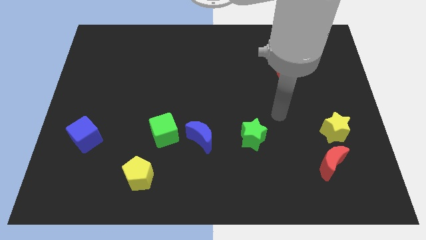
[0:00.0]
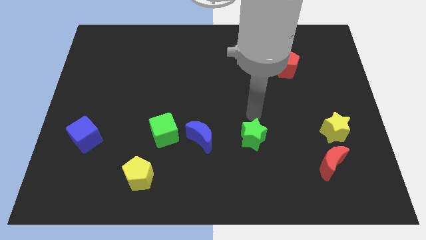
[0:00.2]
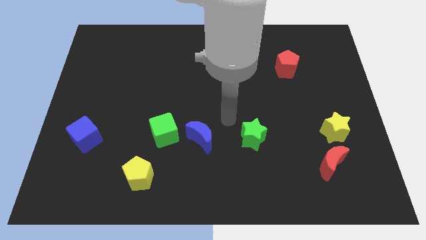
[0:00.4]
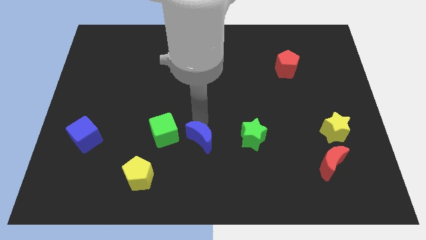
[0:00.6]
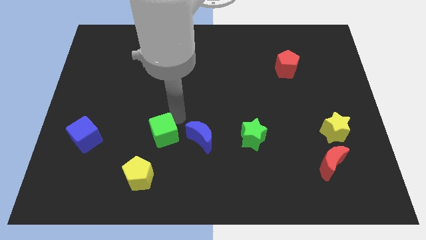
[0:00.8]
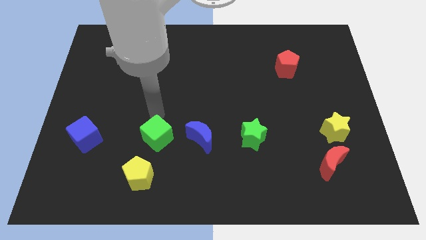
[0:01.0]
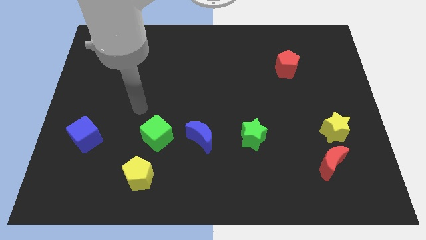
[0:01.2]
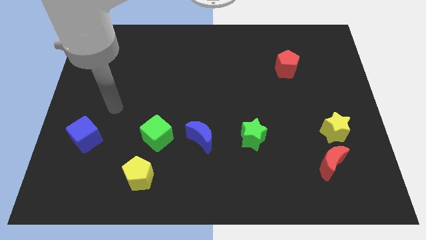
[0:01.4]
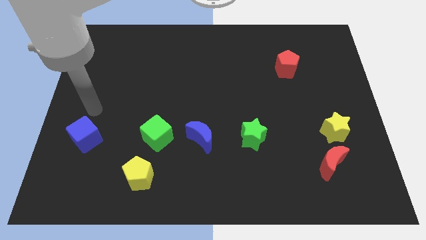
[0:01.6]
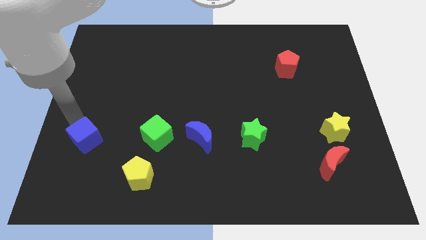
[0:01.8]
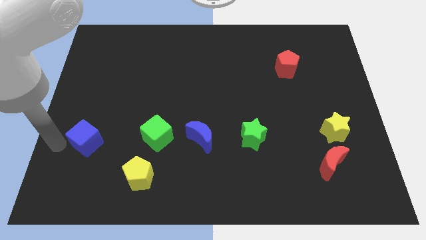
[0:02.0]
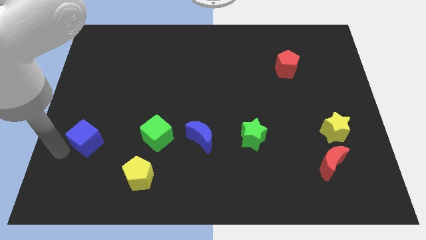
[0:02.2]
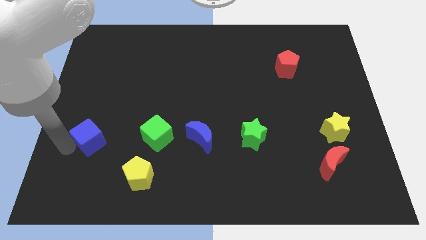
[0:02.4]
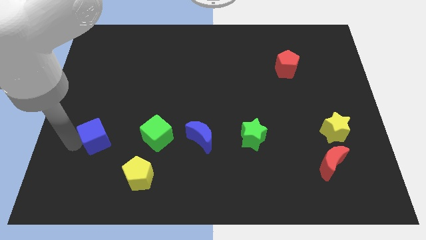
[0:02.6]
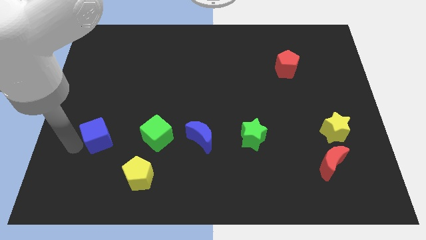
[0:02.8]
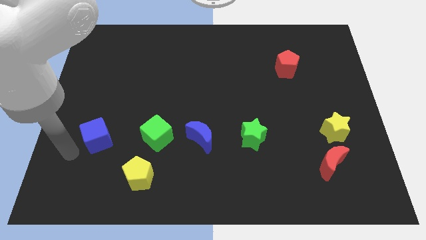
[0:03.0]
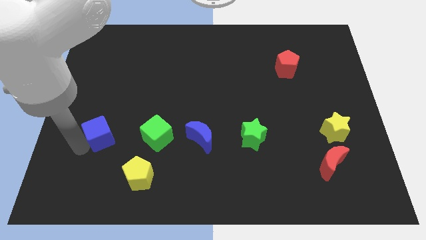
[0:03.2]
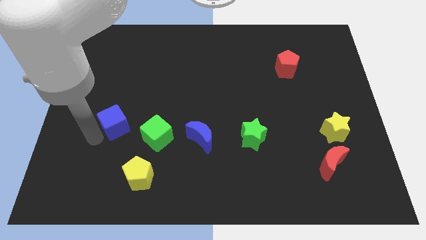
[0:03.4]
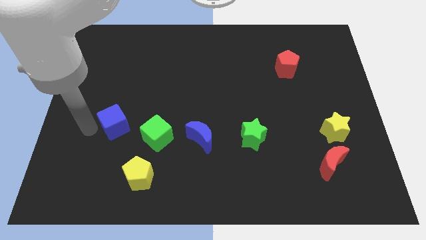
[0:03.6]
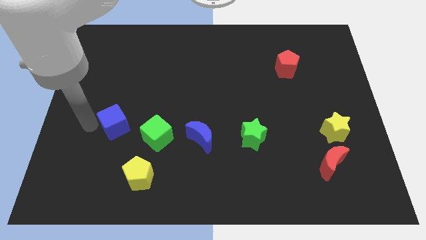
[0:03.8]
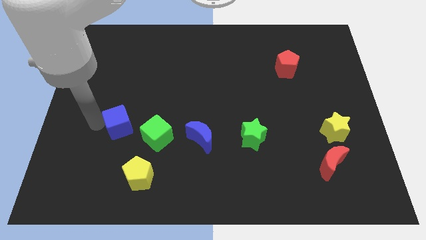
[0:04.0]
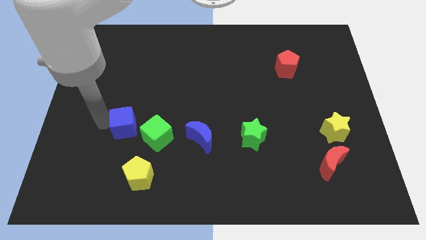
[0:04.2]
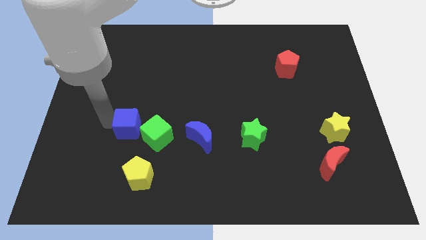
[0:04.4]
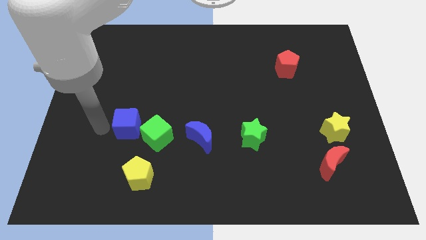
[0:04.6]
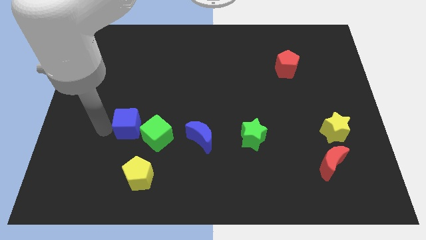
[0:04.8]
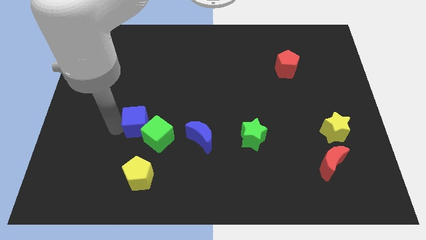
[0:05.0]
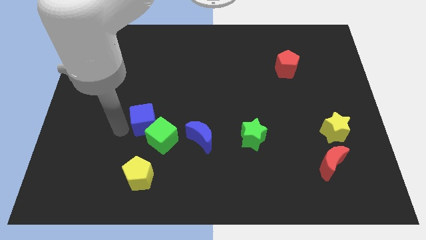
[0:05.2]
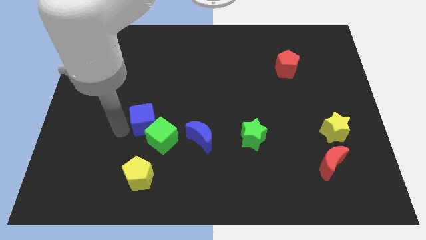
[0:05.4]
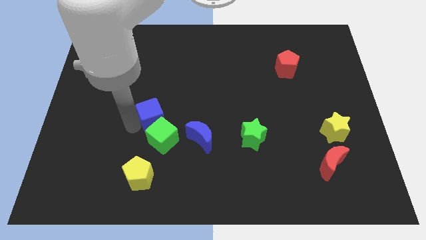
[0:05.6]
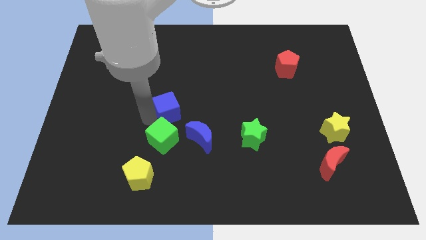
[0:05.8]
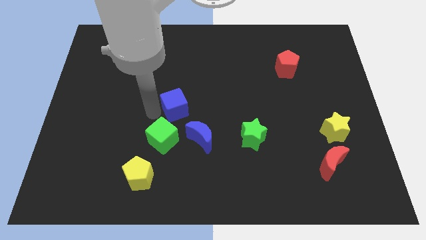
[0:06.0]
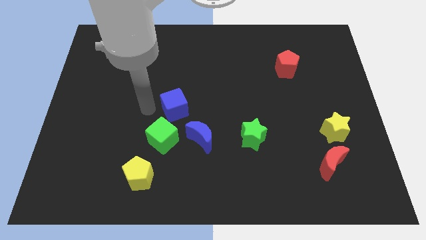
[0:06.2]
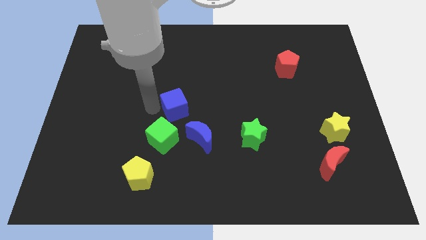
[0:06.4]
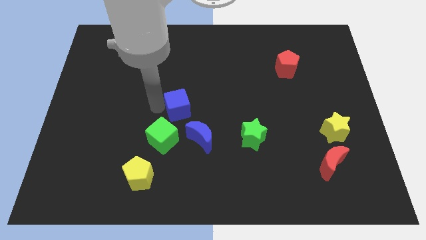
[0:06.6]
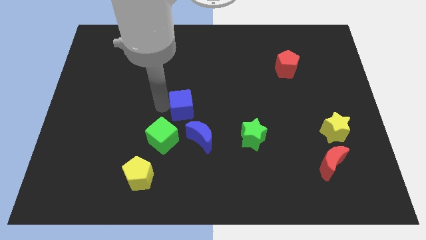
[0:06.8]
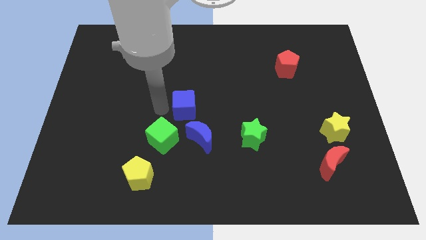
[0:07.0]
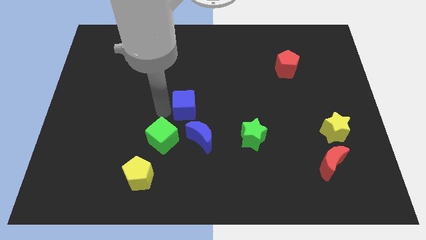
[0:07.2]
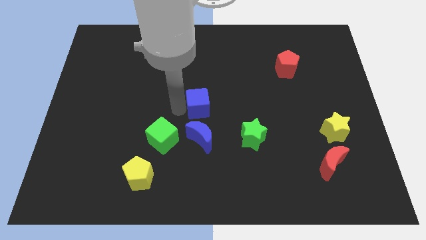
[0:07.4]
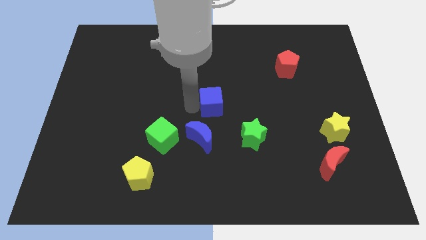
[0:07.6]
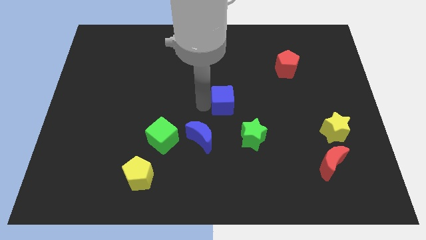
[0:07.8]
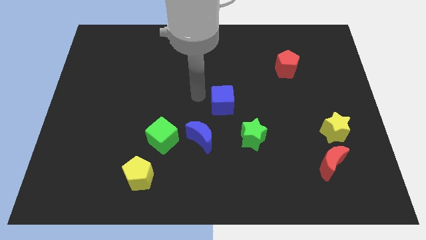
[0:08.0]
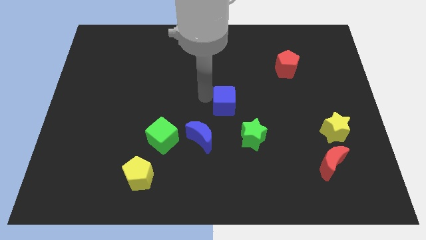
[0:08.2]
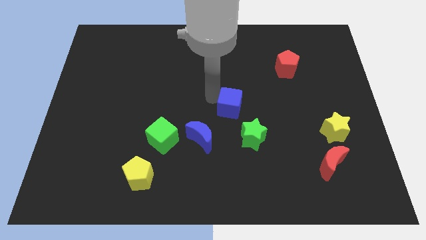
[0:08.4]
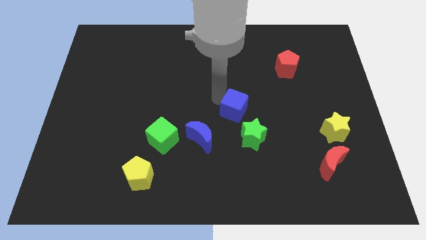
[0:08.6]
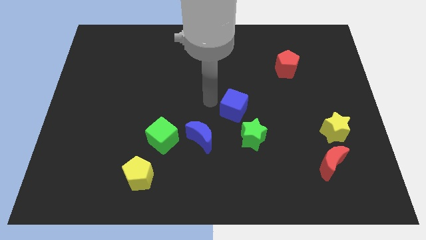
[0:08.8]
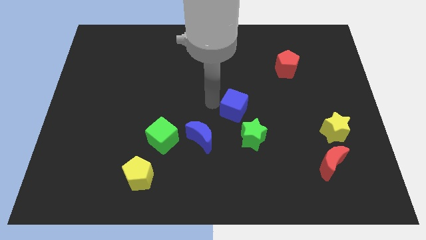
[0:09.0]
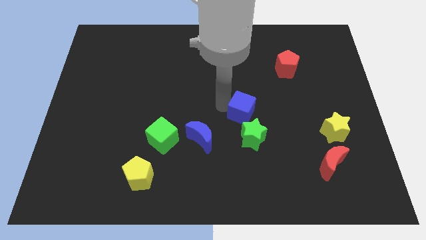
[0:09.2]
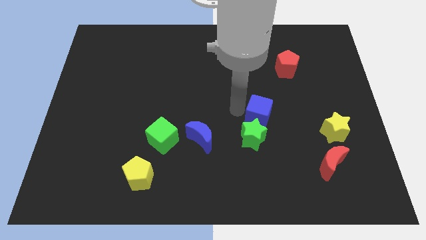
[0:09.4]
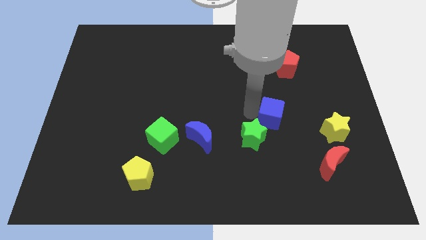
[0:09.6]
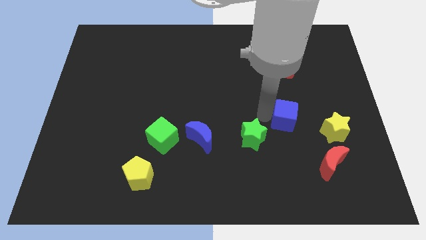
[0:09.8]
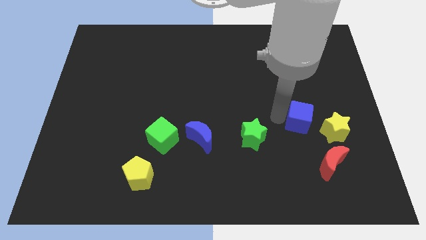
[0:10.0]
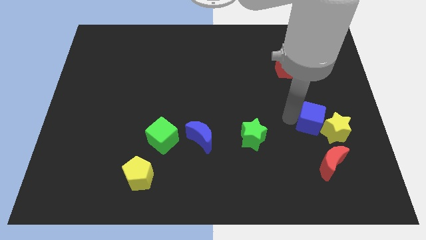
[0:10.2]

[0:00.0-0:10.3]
slide the blue cube next to the yellow star

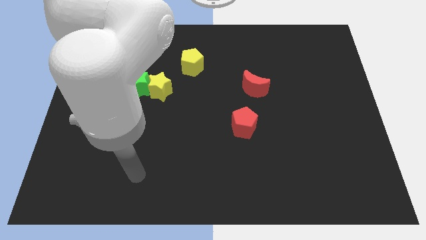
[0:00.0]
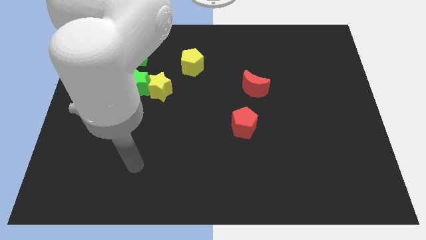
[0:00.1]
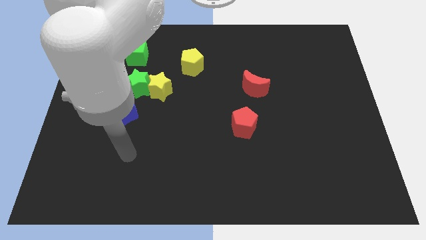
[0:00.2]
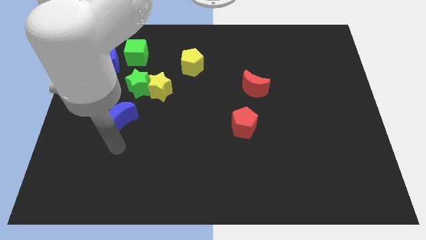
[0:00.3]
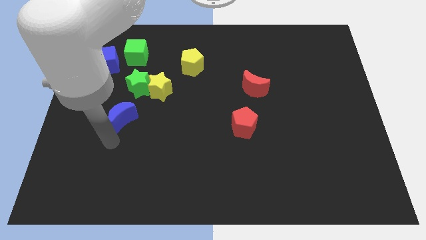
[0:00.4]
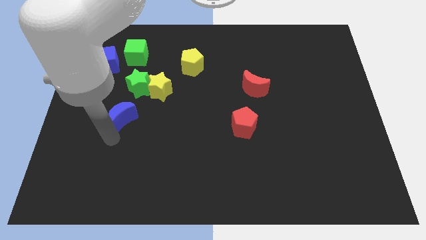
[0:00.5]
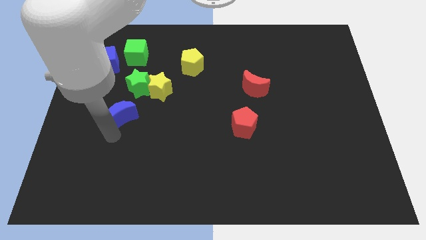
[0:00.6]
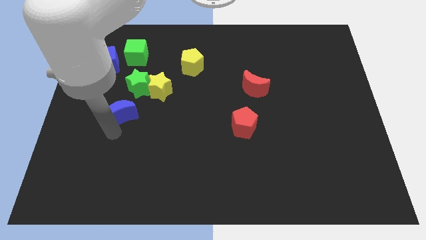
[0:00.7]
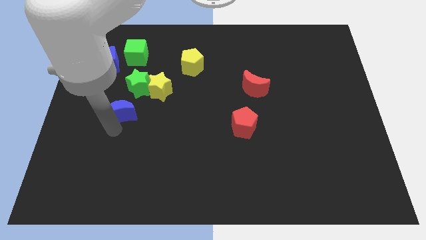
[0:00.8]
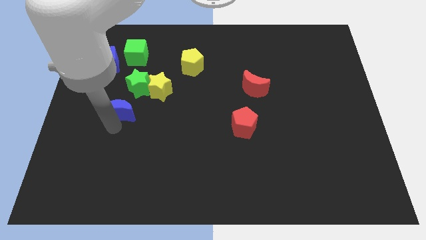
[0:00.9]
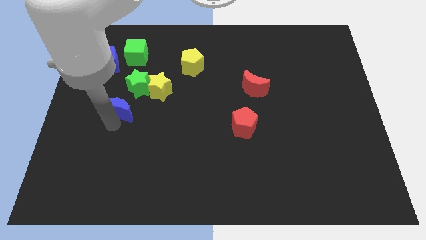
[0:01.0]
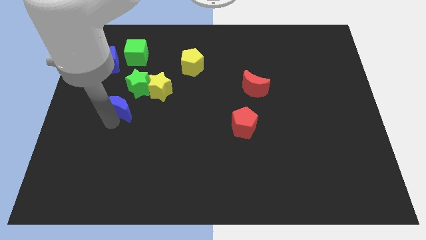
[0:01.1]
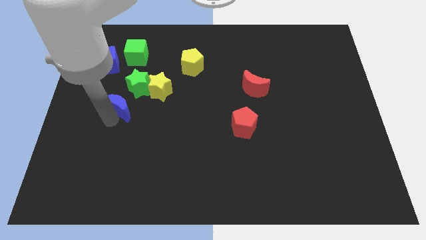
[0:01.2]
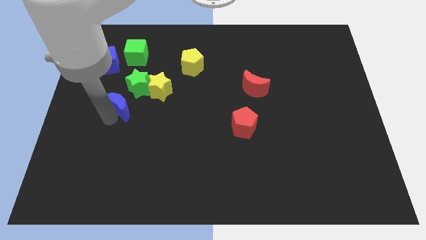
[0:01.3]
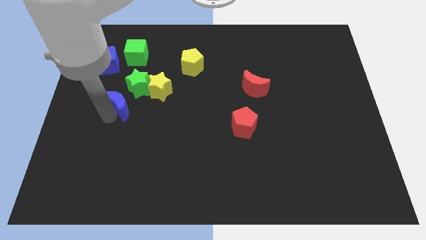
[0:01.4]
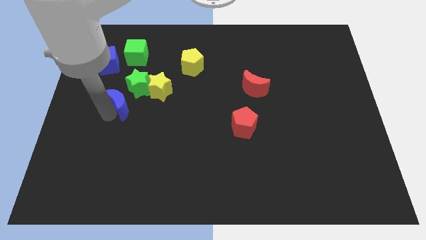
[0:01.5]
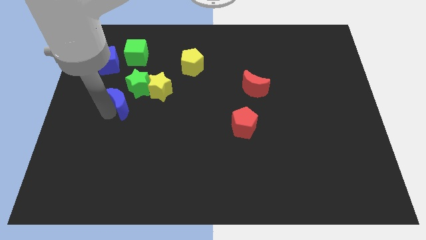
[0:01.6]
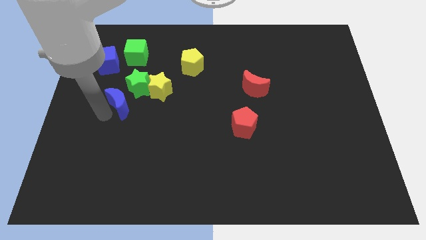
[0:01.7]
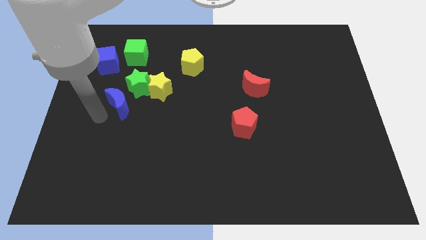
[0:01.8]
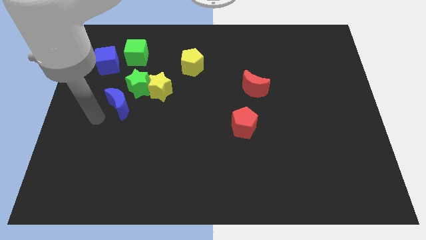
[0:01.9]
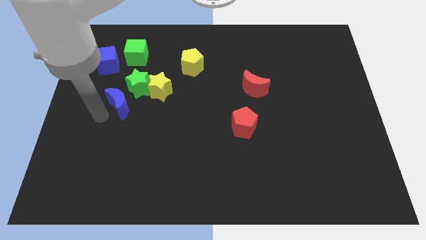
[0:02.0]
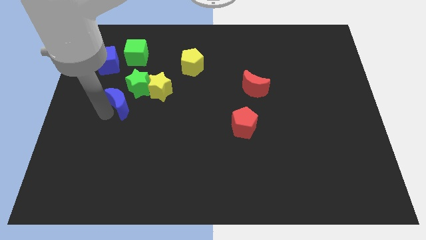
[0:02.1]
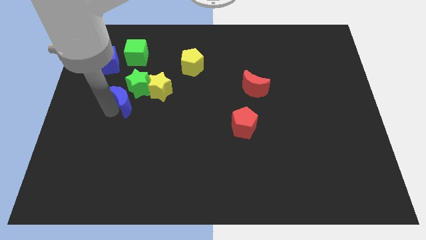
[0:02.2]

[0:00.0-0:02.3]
move the blue moon to the green star

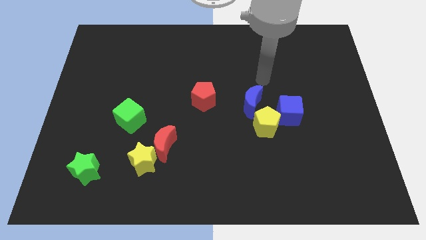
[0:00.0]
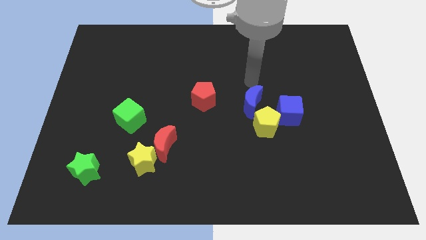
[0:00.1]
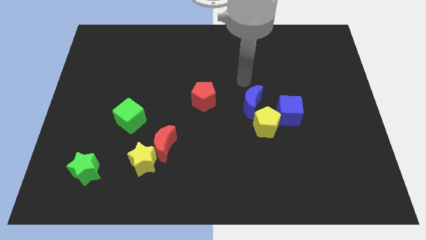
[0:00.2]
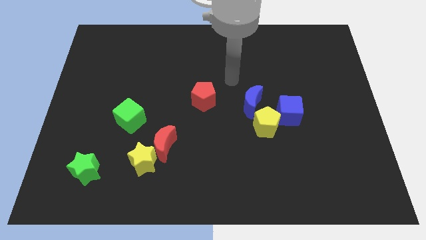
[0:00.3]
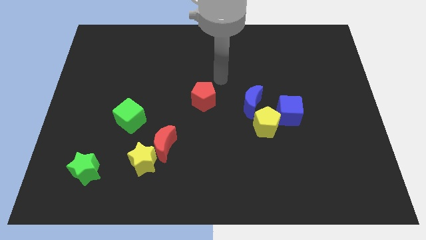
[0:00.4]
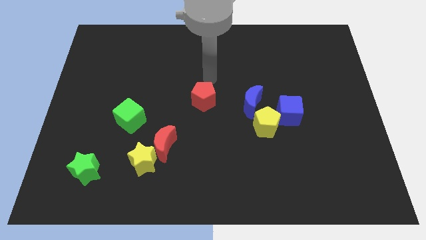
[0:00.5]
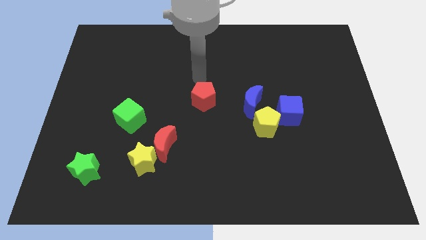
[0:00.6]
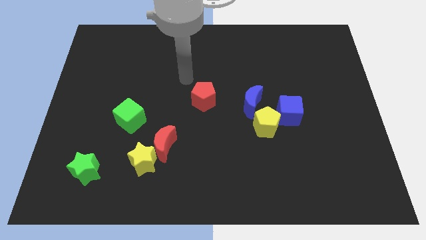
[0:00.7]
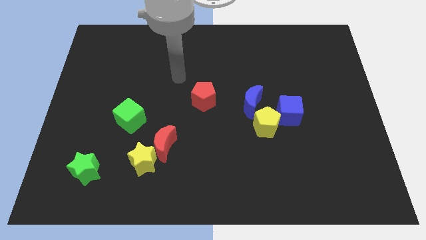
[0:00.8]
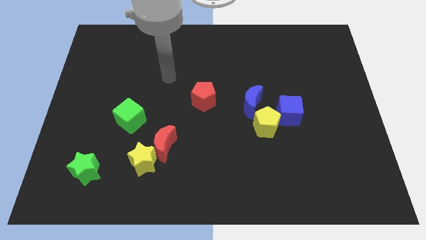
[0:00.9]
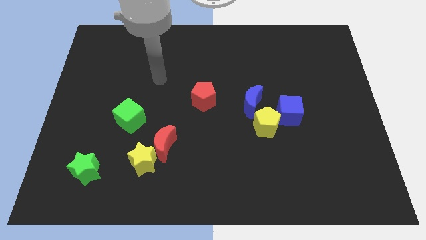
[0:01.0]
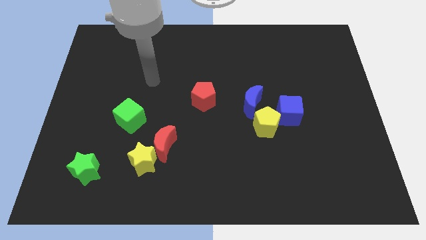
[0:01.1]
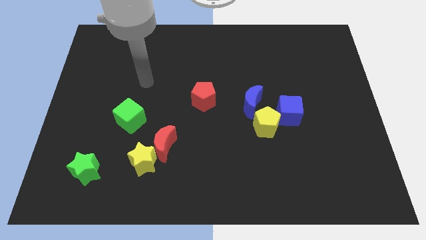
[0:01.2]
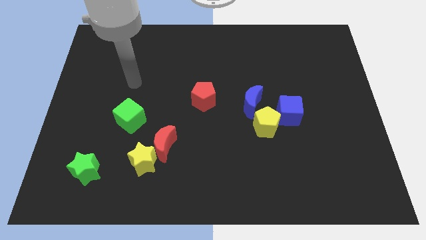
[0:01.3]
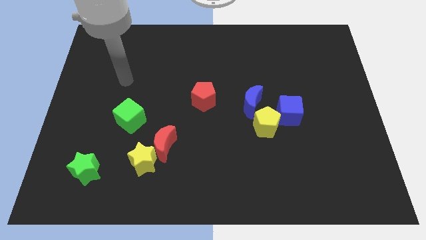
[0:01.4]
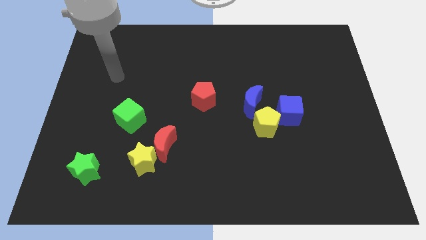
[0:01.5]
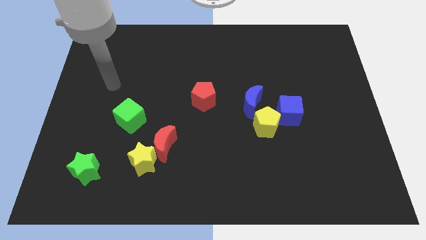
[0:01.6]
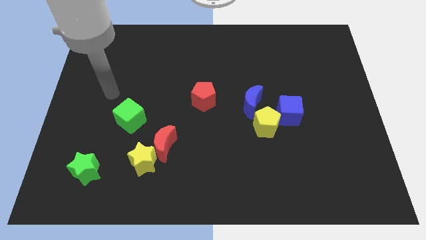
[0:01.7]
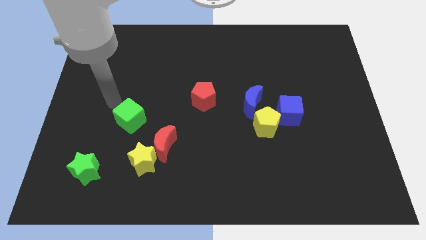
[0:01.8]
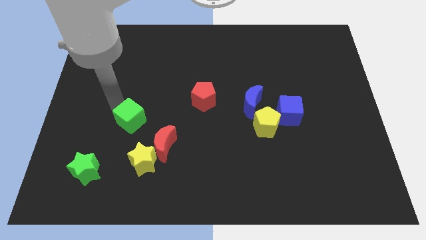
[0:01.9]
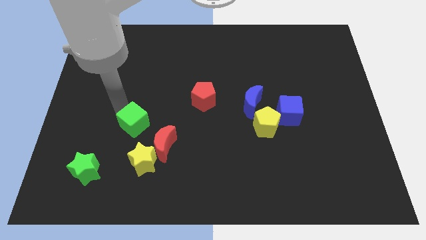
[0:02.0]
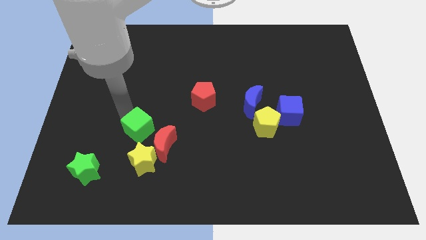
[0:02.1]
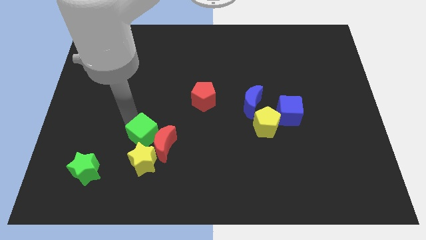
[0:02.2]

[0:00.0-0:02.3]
put the green cube towards the red moon
